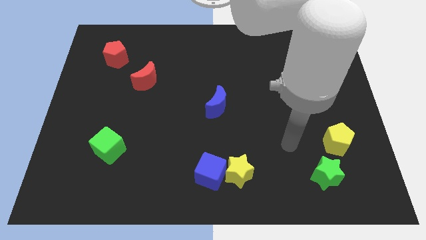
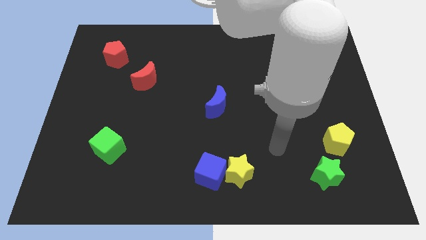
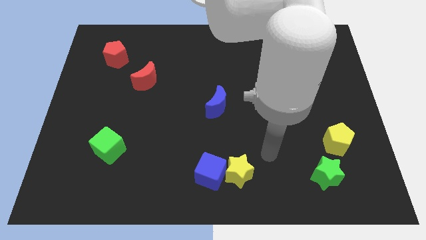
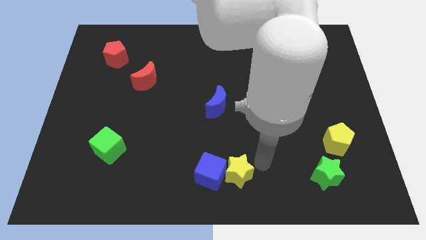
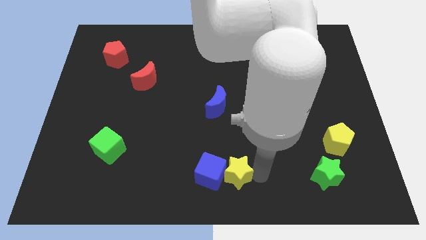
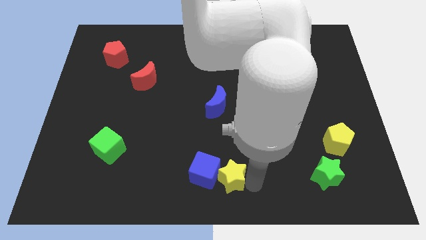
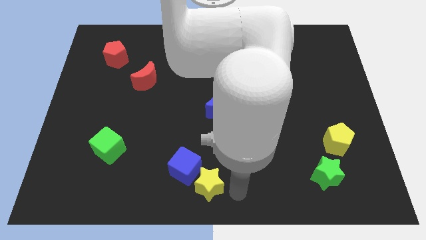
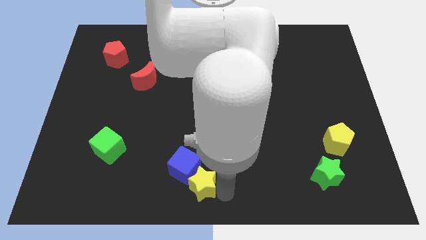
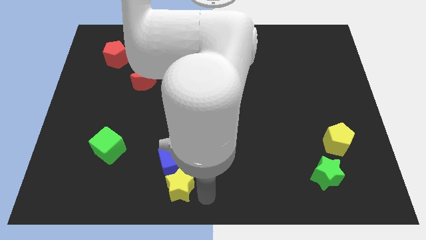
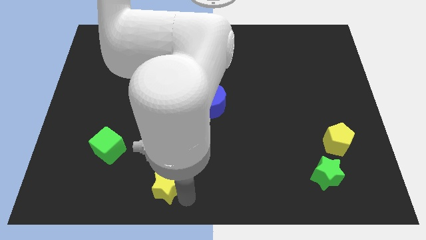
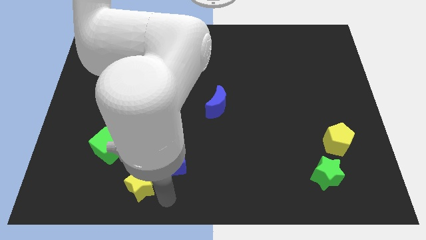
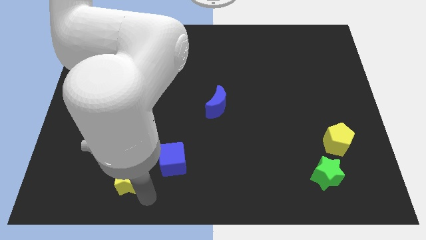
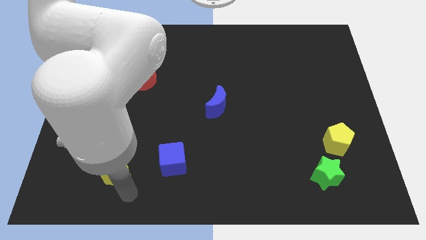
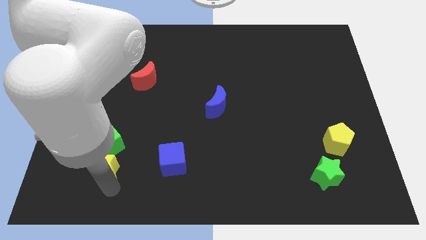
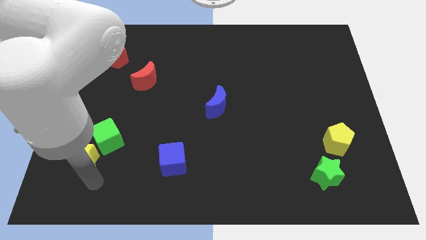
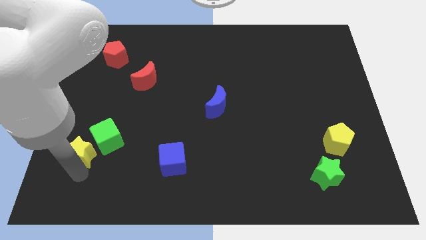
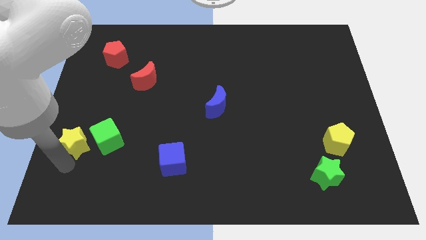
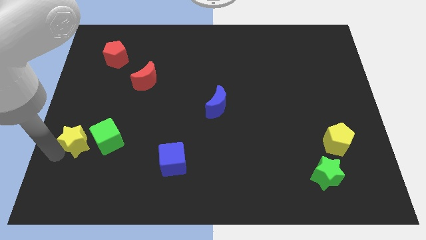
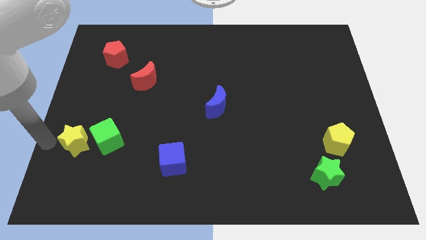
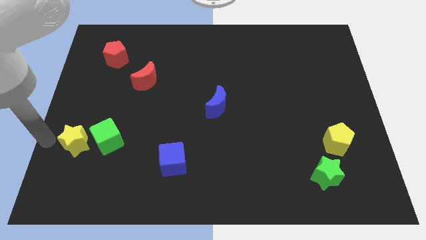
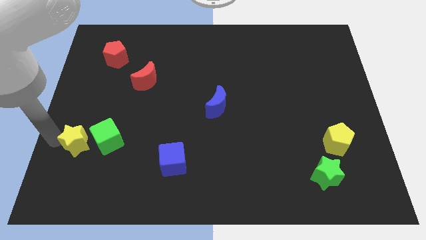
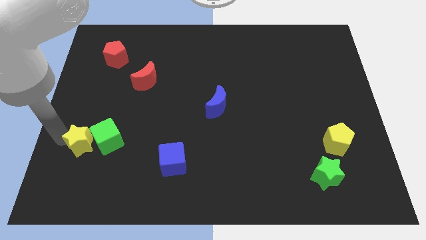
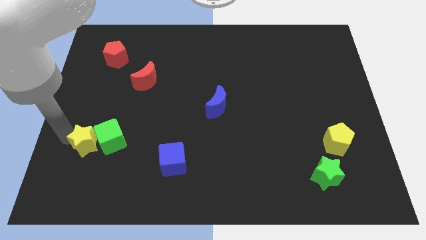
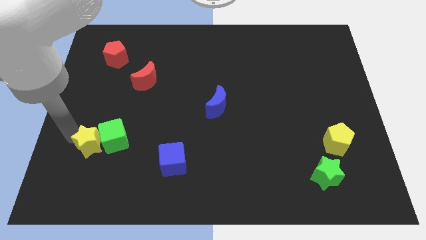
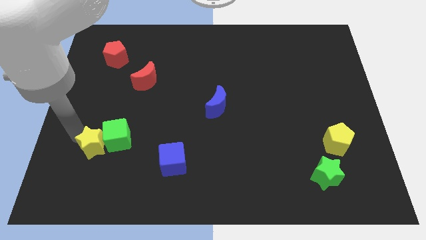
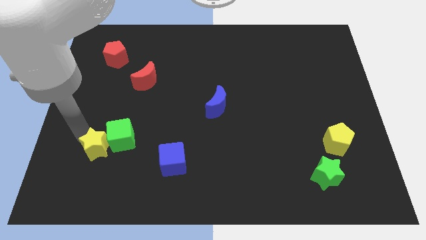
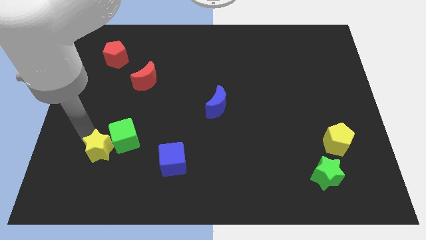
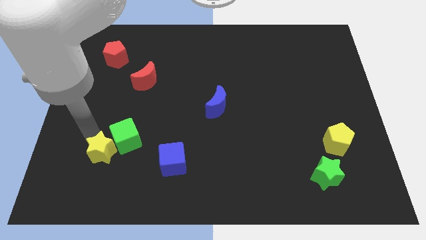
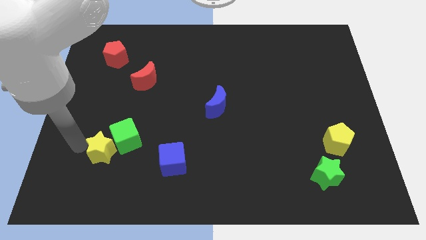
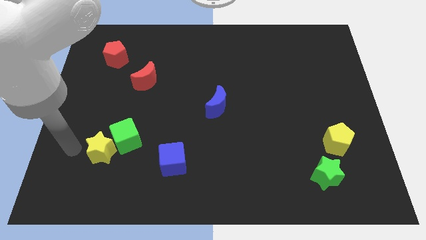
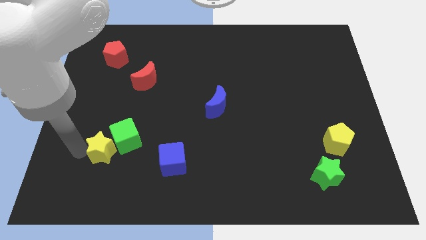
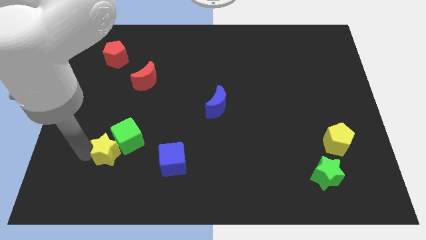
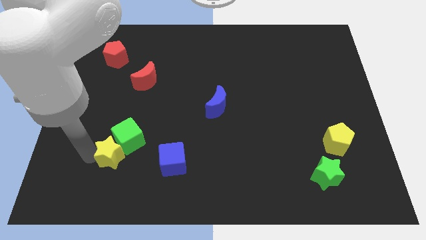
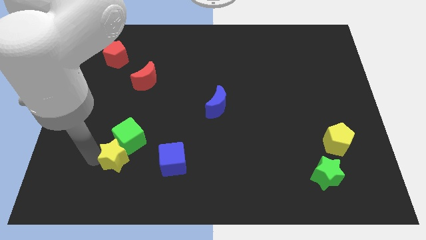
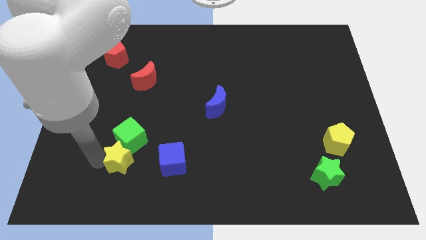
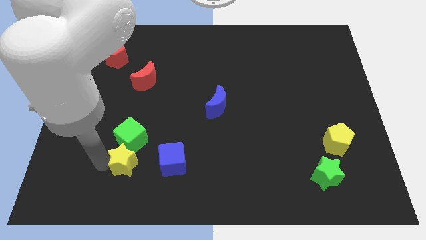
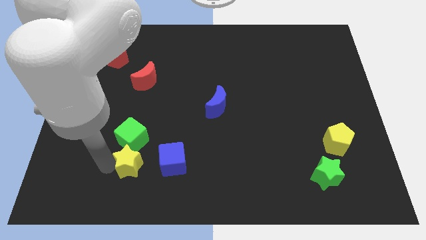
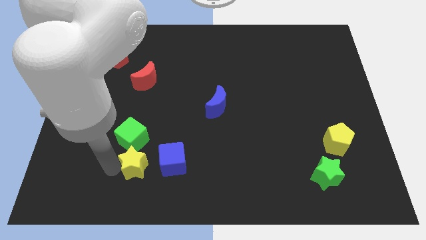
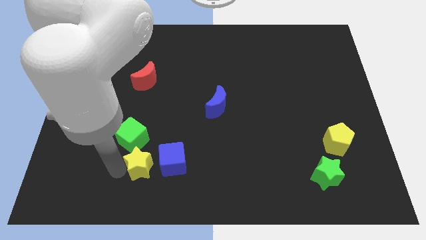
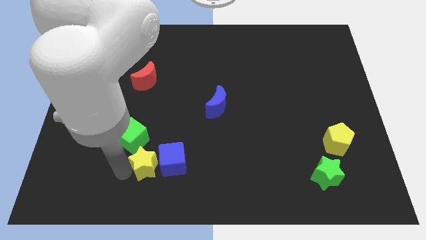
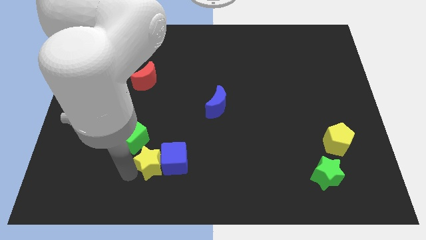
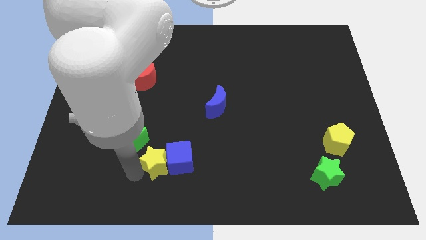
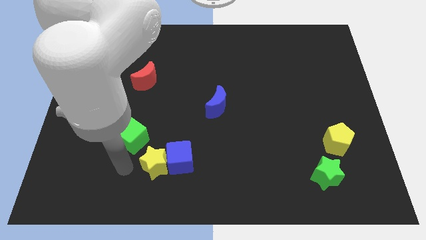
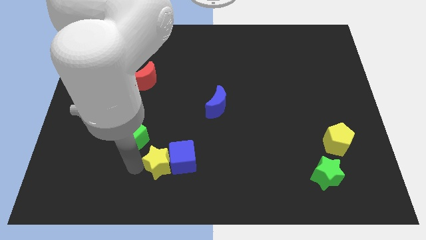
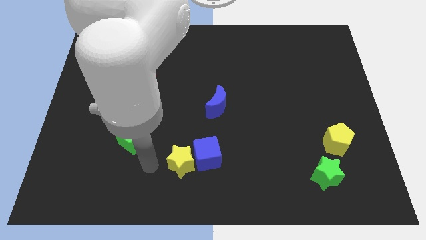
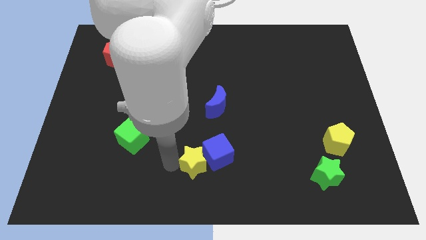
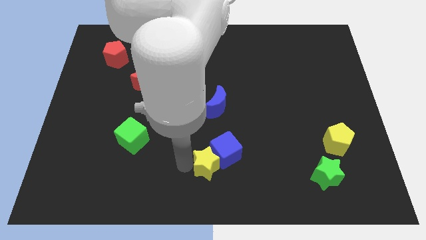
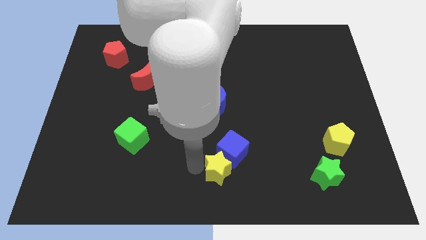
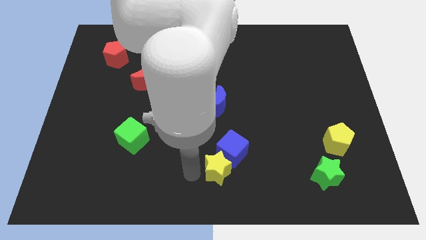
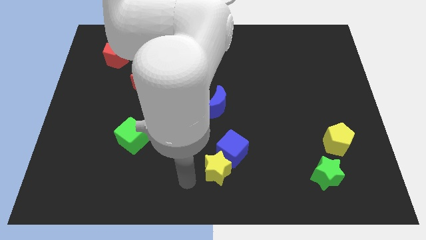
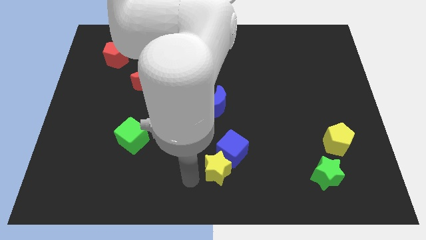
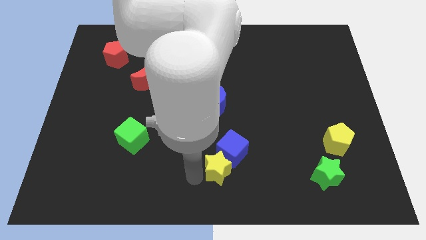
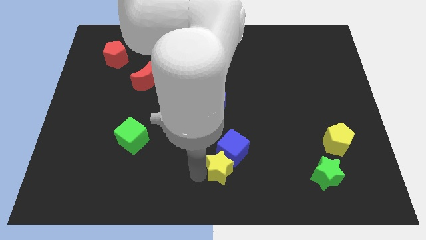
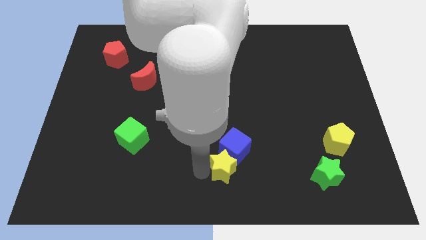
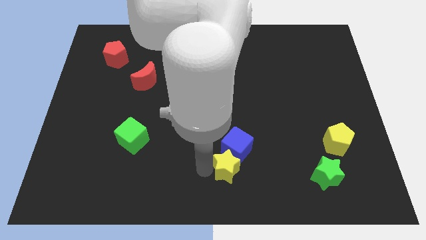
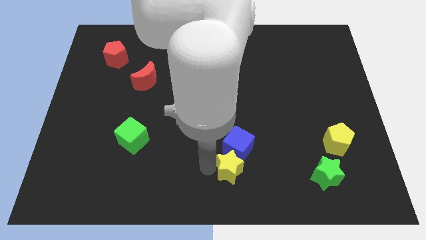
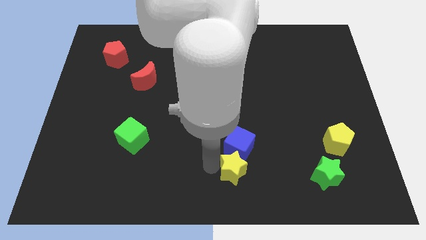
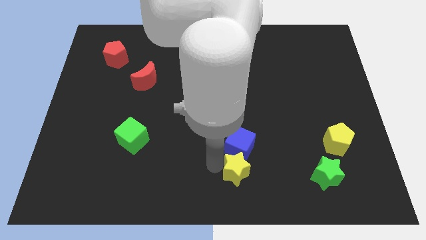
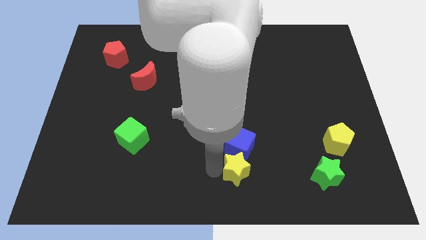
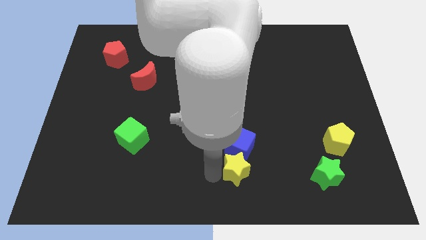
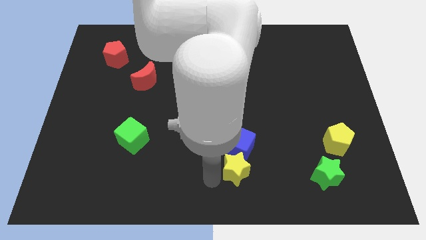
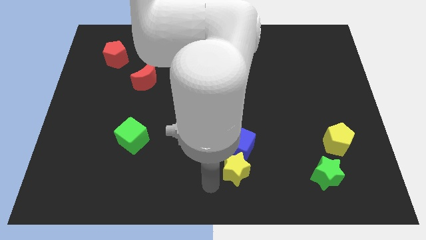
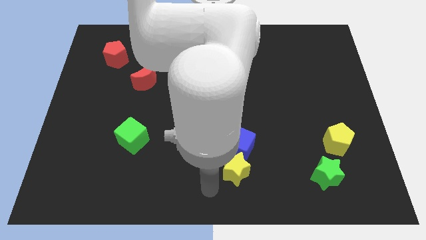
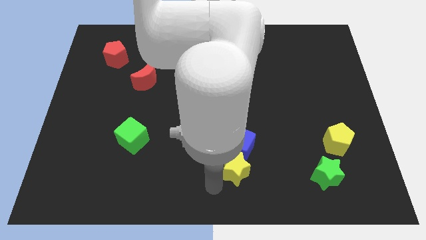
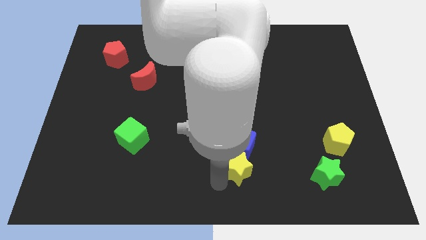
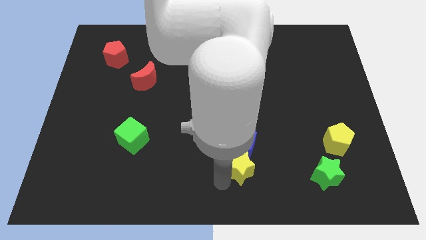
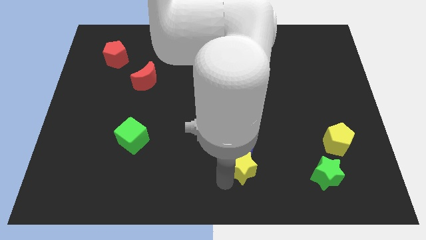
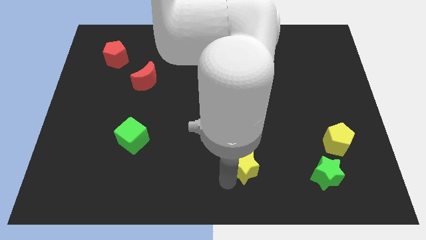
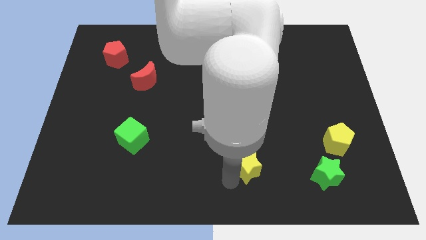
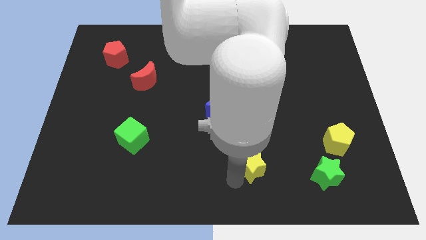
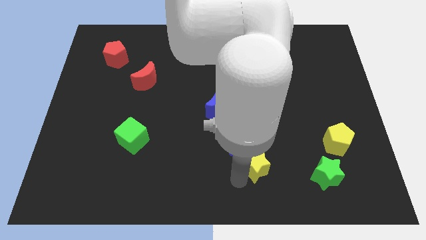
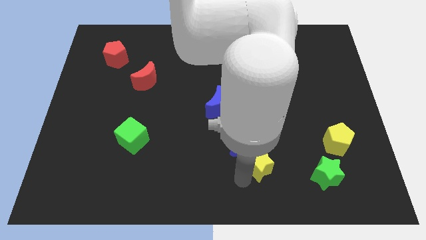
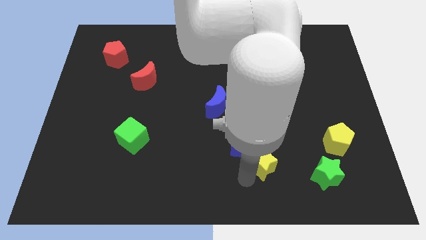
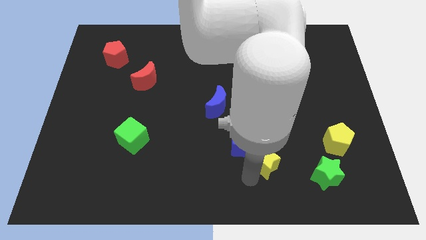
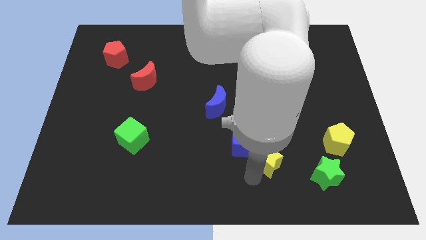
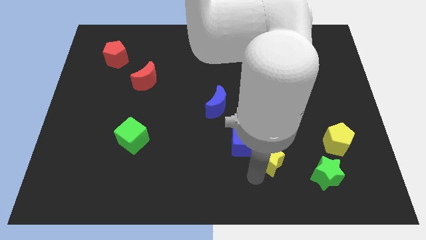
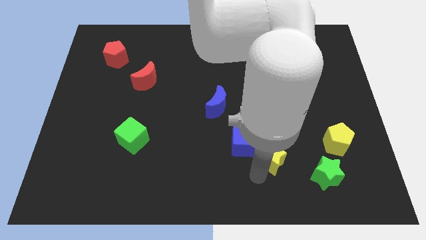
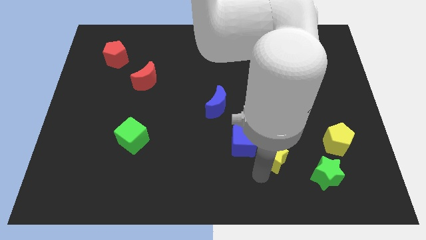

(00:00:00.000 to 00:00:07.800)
slide the yellow star a little bit up and right
